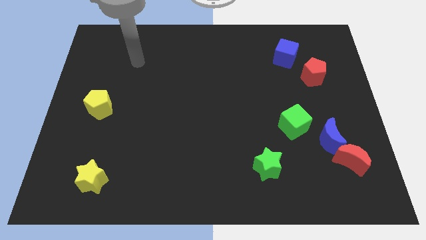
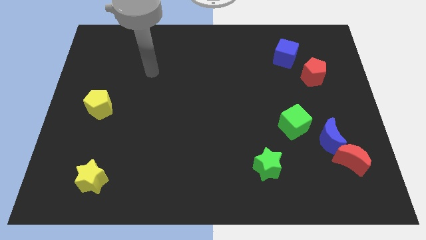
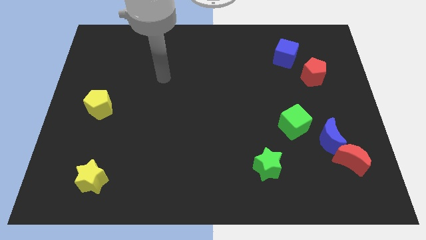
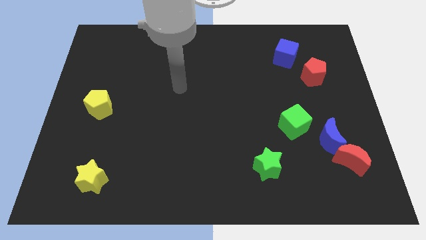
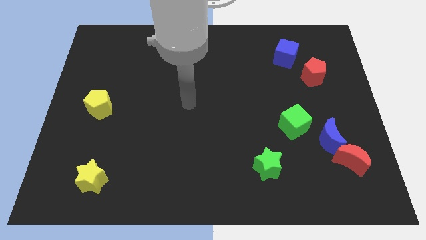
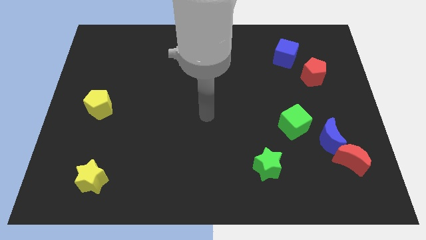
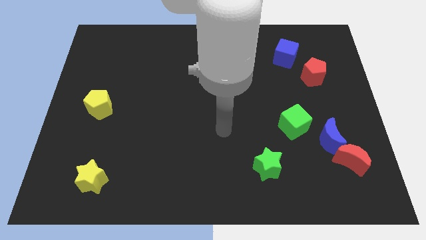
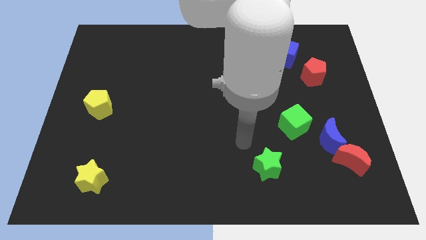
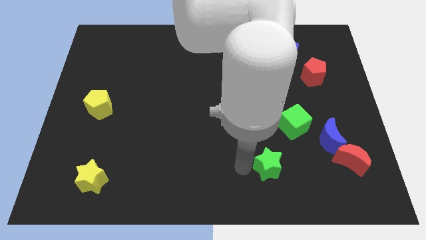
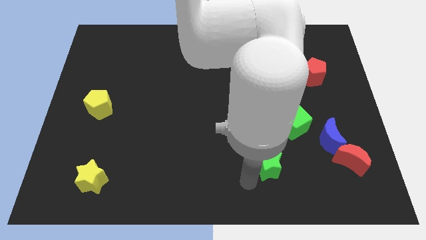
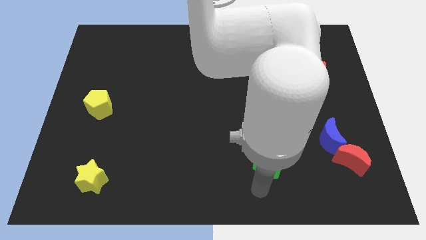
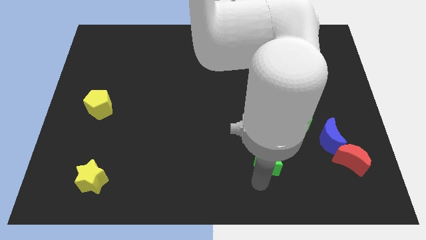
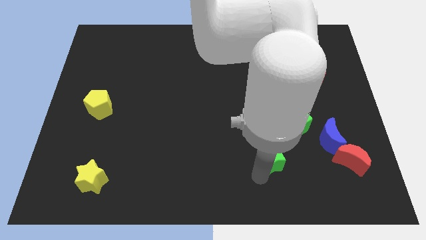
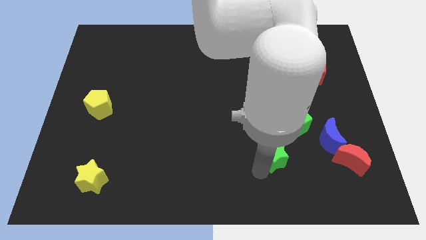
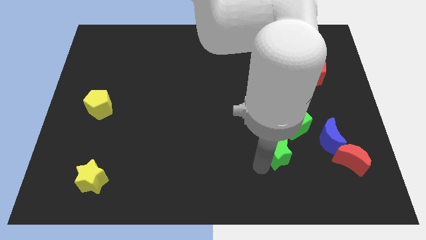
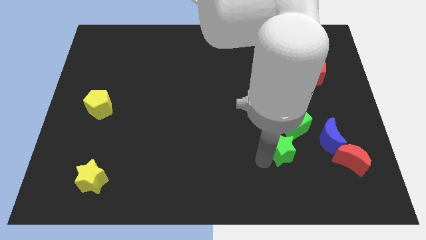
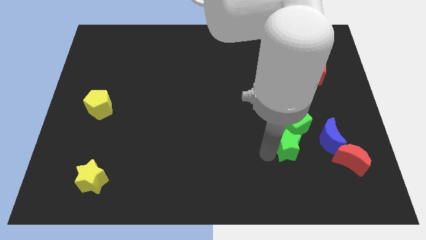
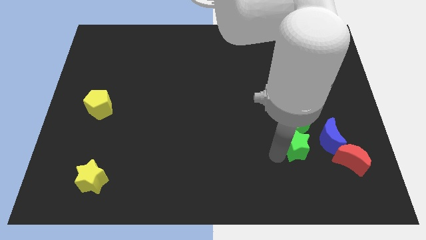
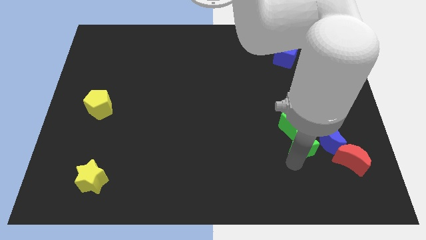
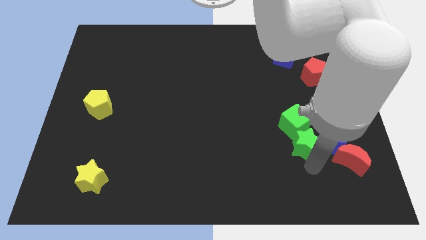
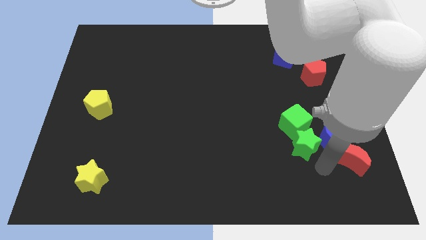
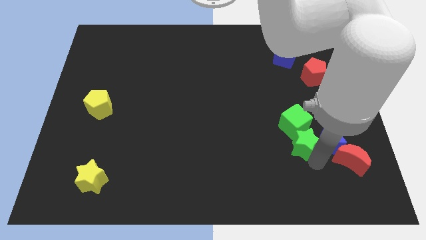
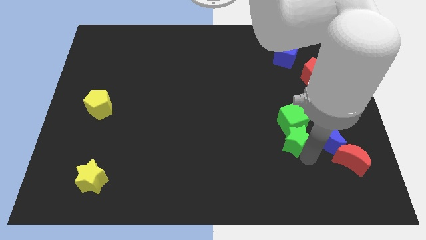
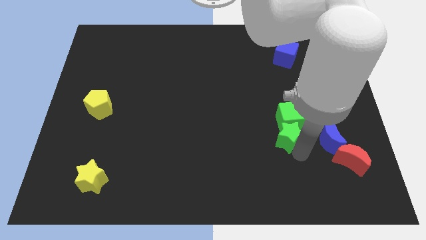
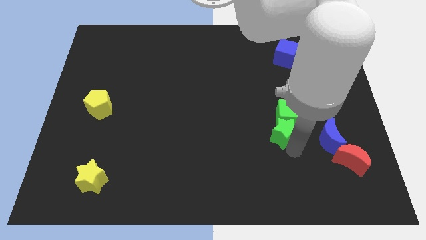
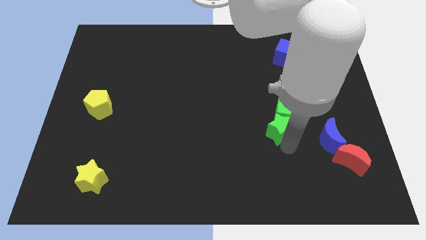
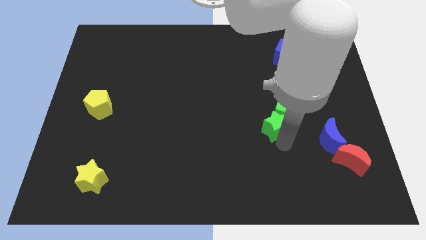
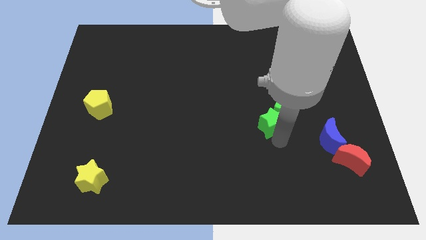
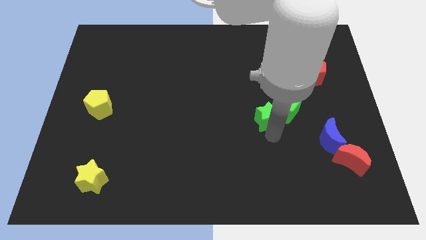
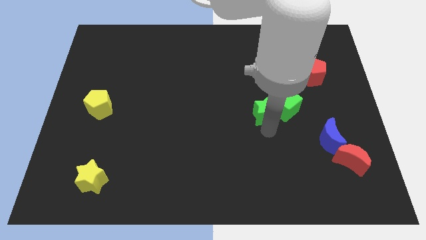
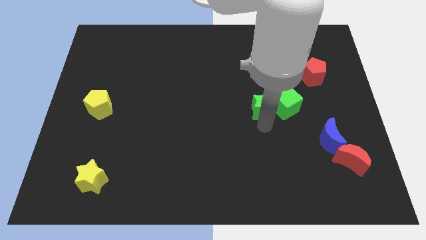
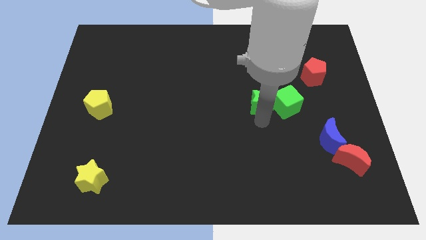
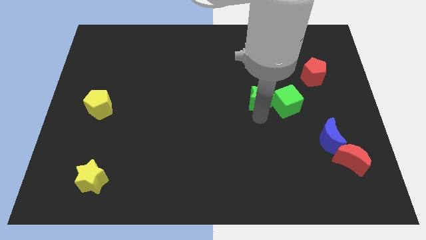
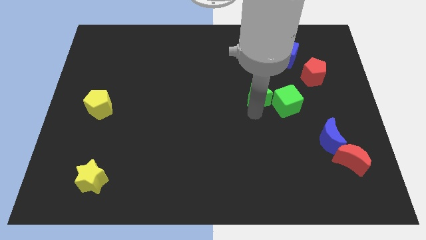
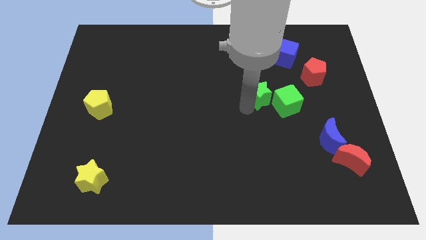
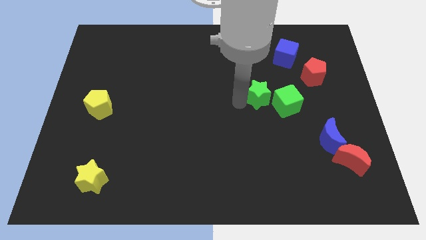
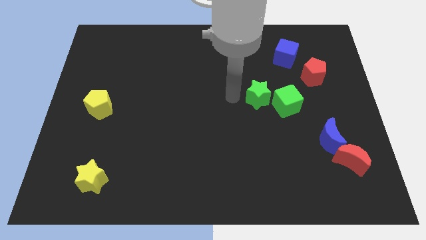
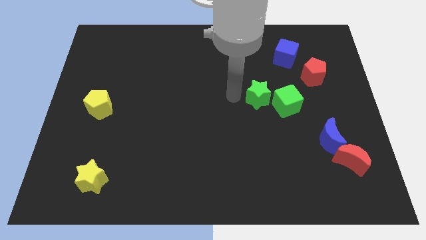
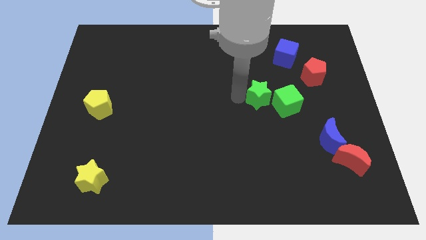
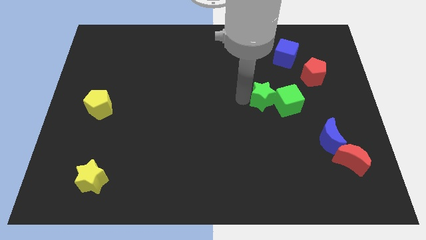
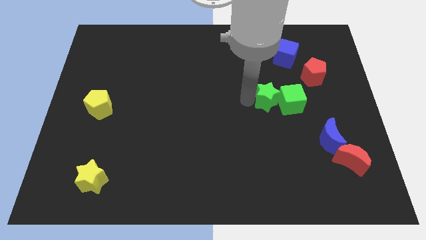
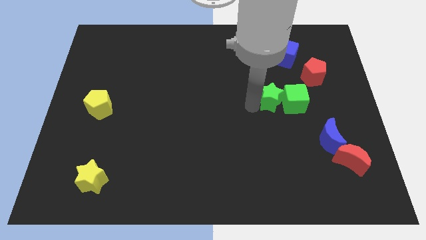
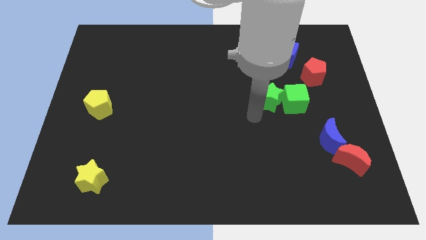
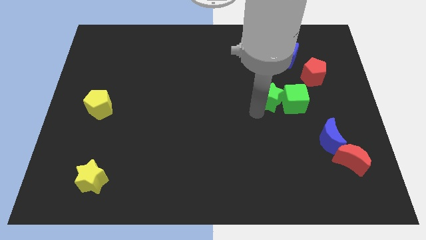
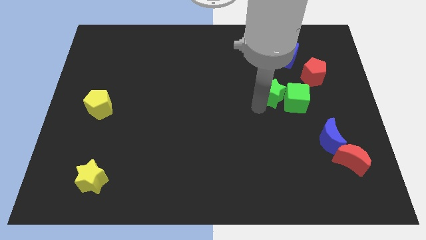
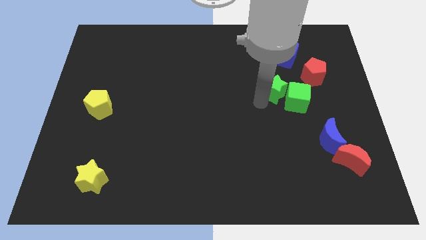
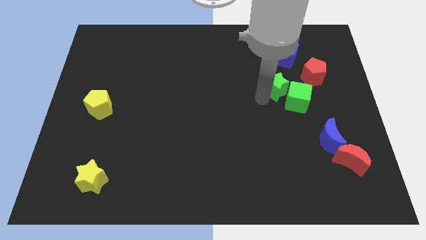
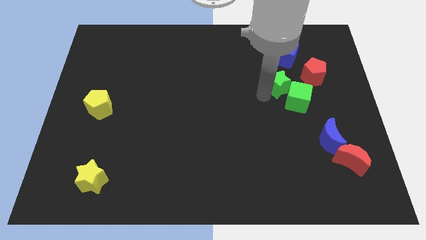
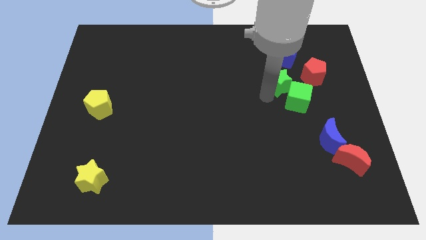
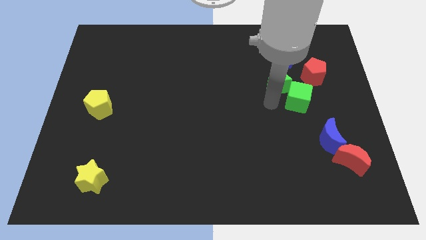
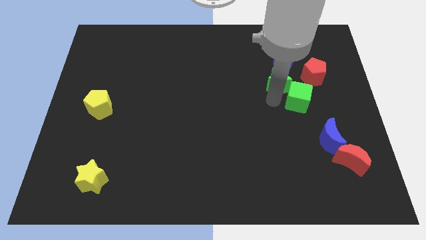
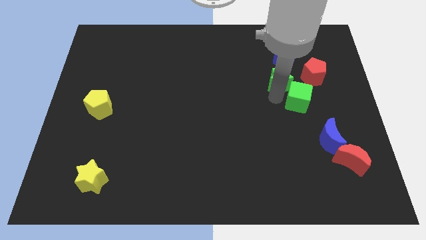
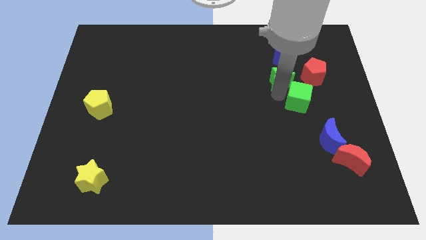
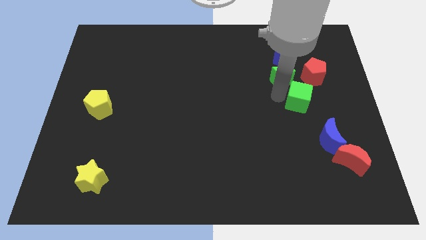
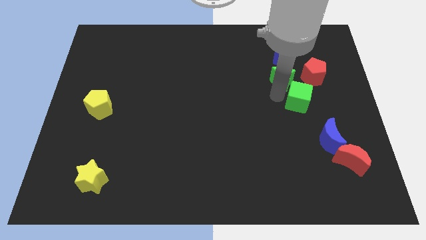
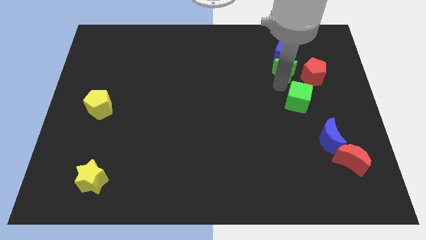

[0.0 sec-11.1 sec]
slide the green star towards the blue cube

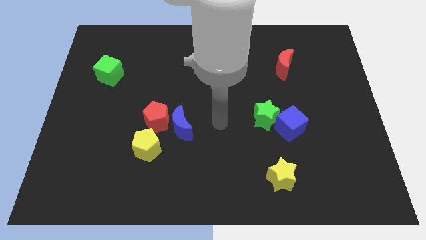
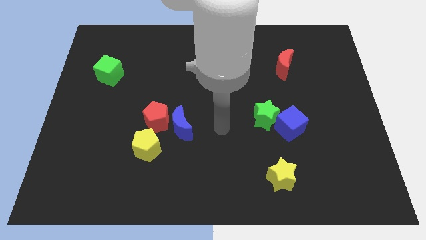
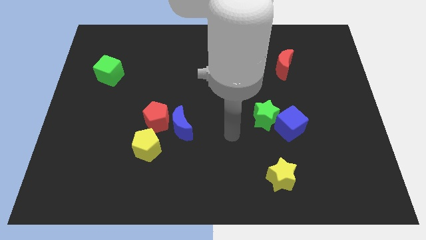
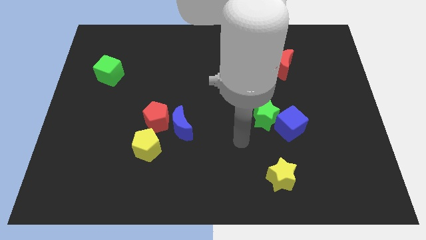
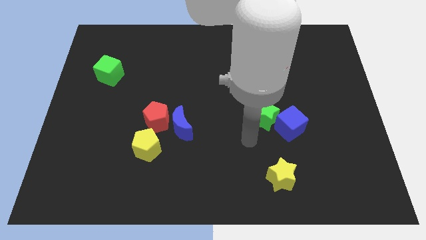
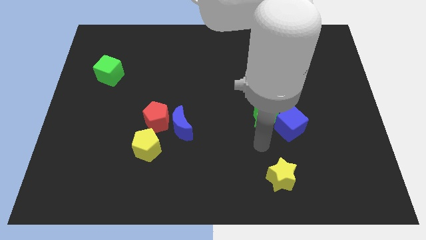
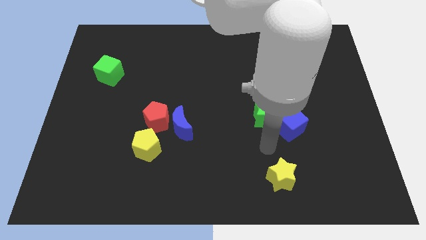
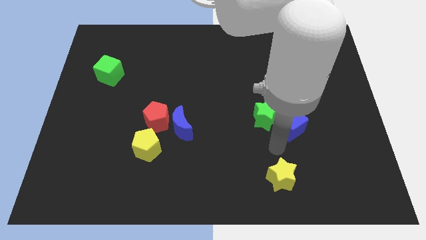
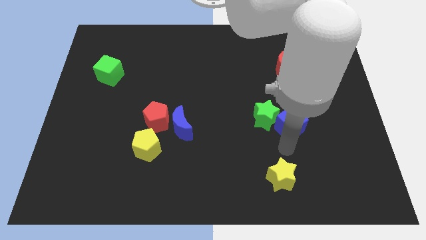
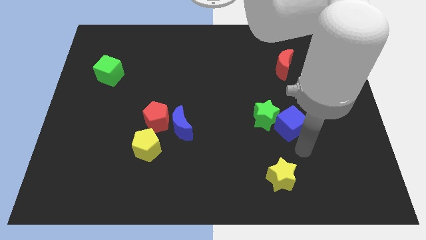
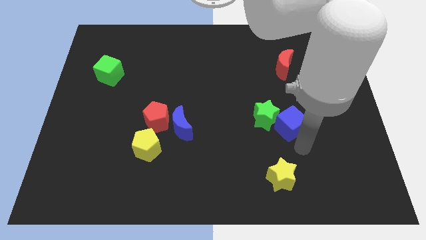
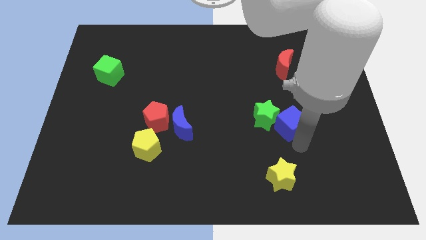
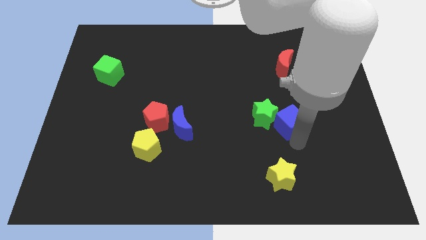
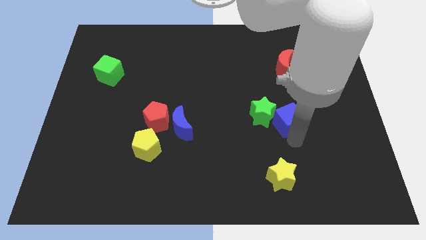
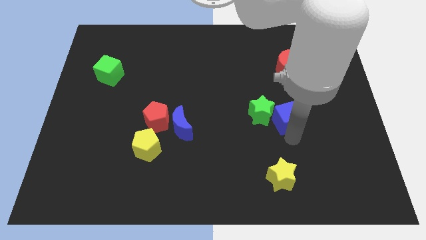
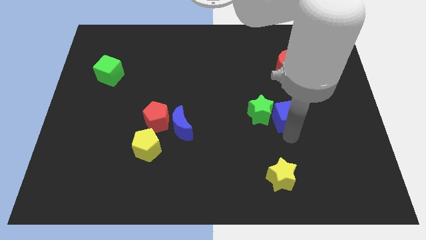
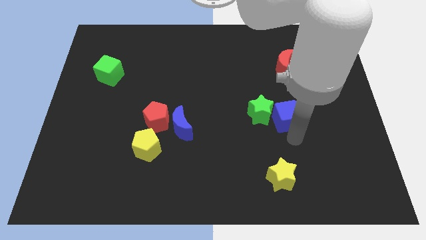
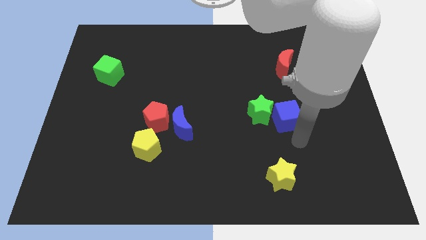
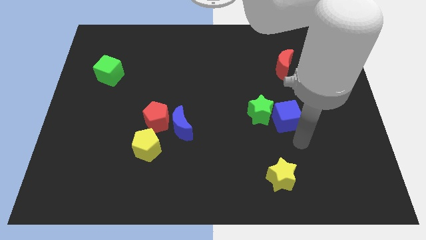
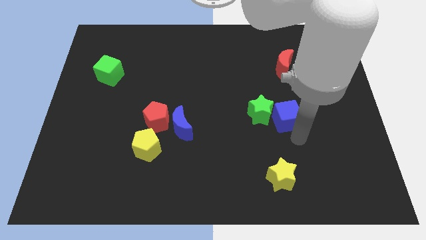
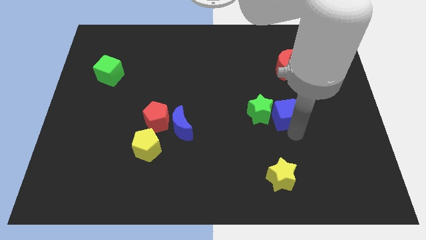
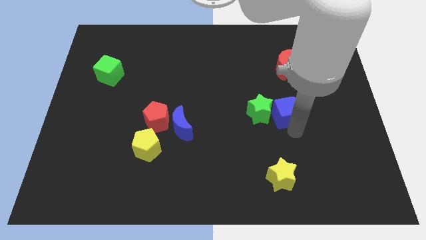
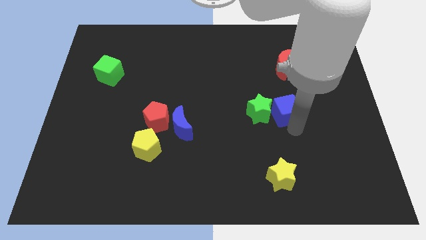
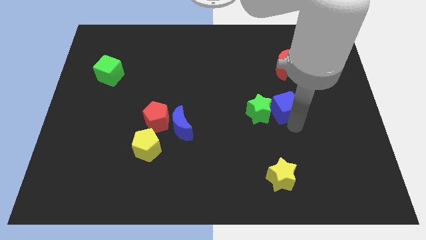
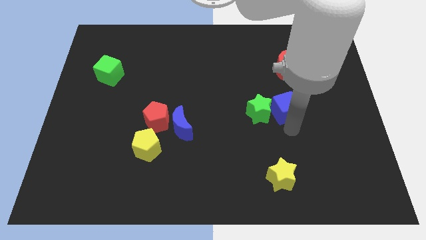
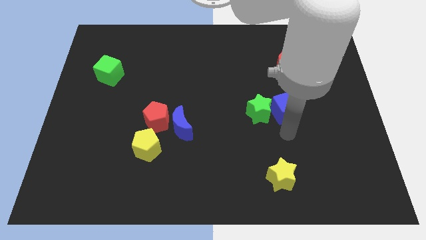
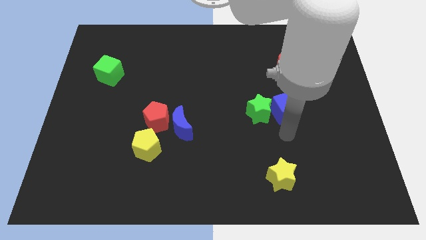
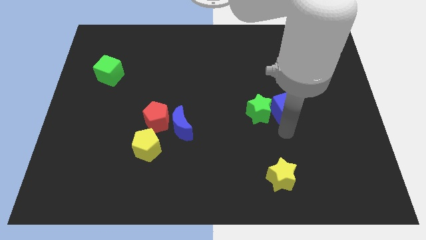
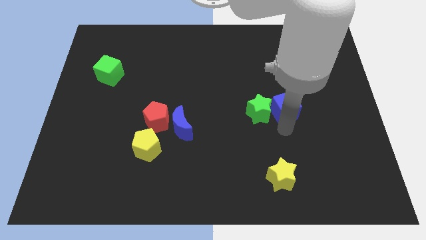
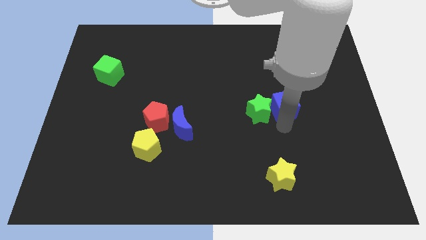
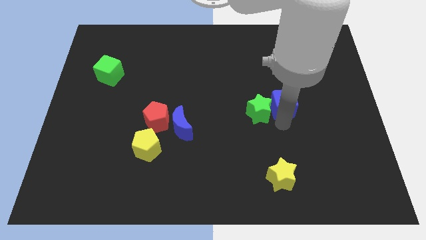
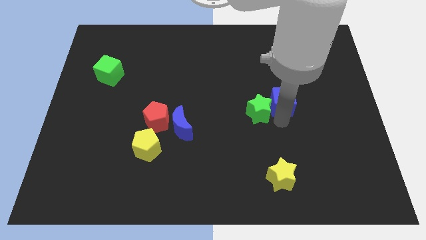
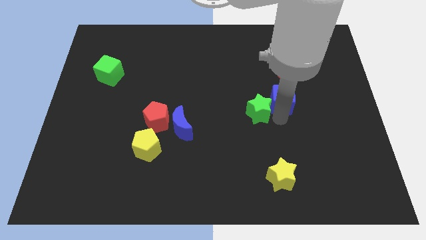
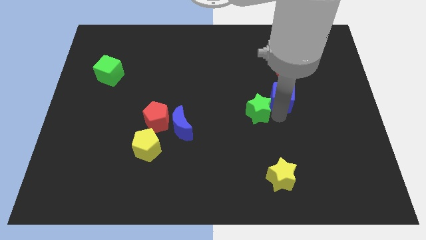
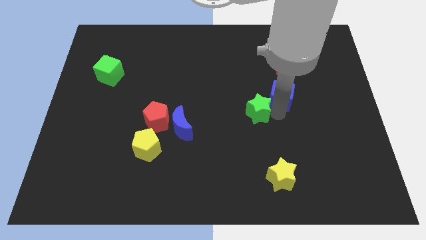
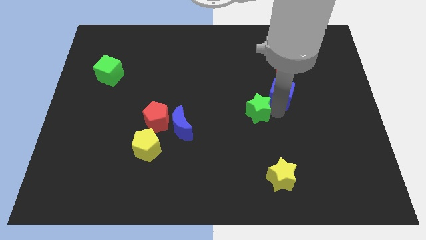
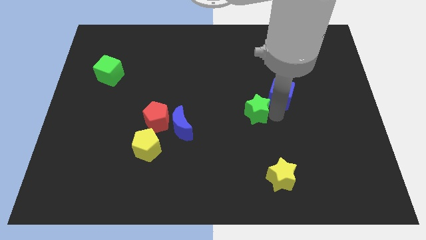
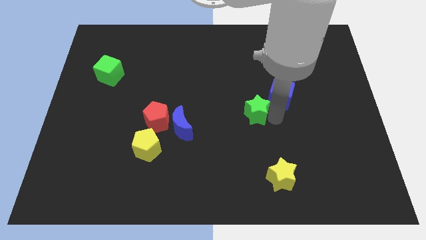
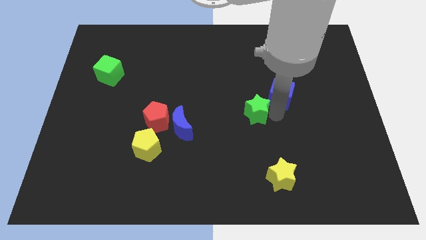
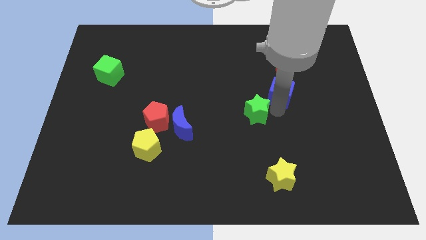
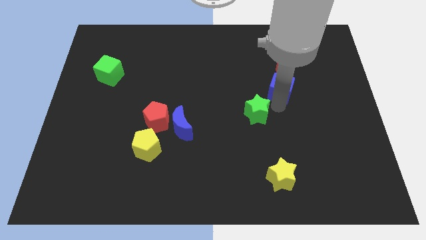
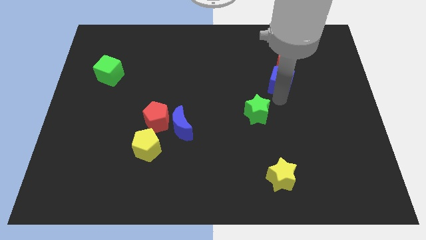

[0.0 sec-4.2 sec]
push the blue cube next to the red moon
